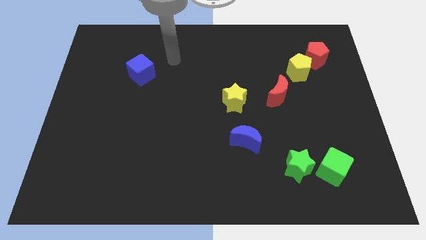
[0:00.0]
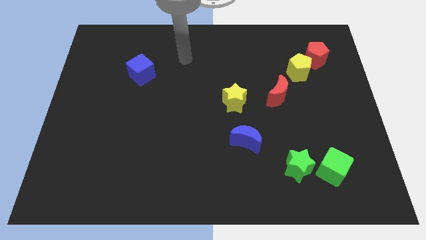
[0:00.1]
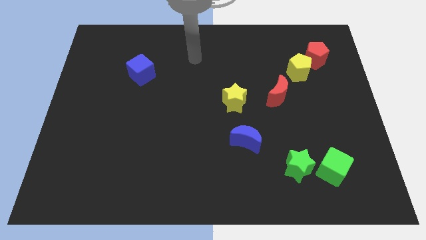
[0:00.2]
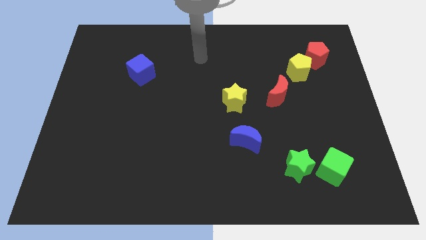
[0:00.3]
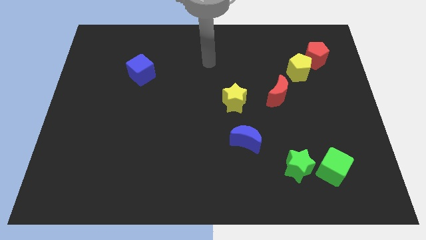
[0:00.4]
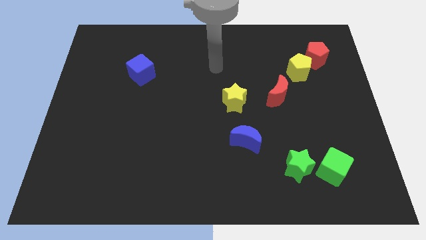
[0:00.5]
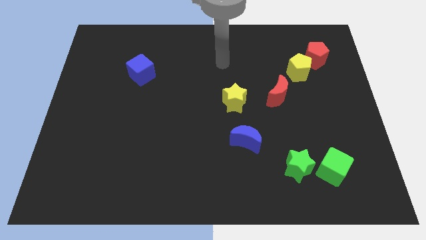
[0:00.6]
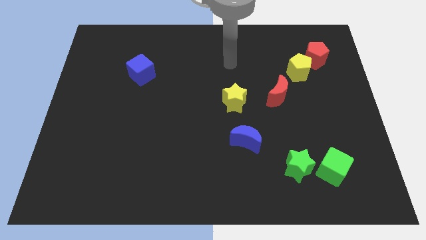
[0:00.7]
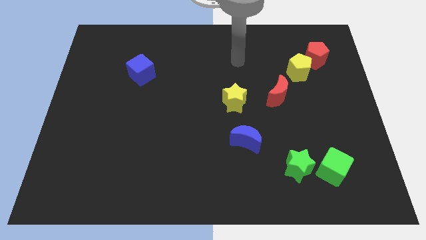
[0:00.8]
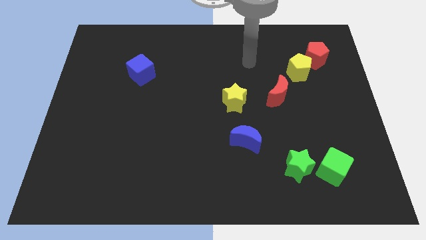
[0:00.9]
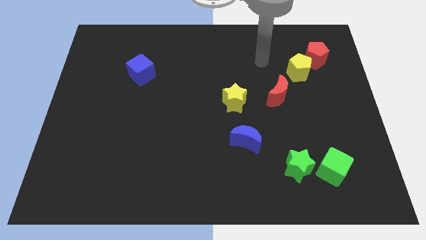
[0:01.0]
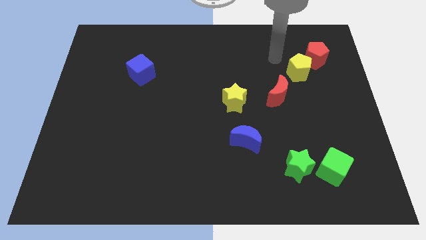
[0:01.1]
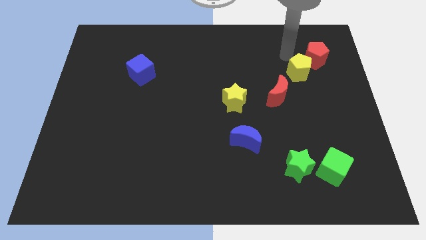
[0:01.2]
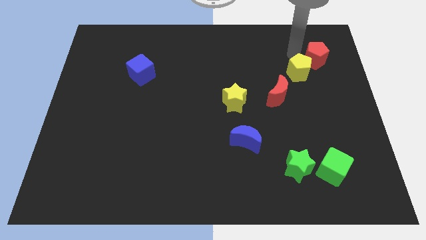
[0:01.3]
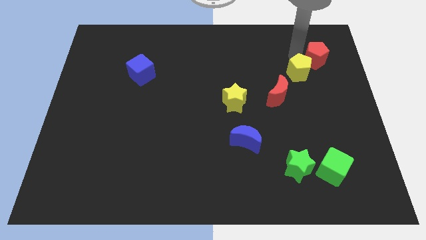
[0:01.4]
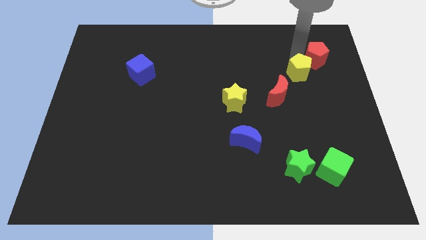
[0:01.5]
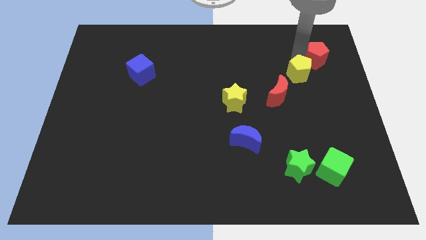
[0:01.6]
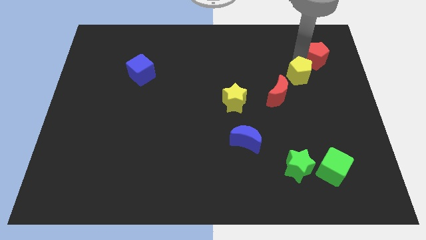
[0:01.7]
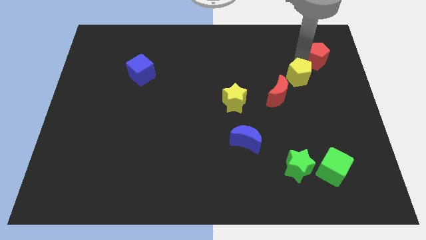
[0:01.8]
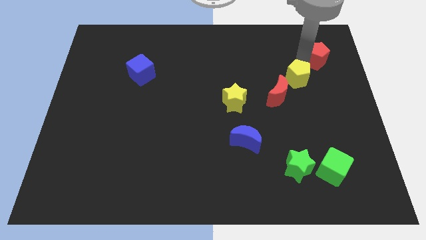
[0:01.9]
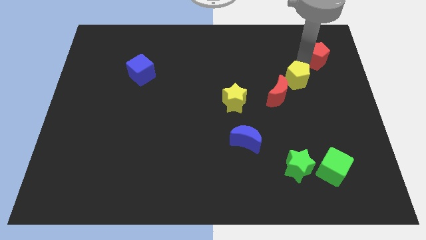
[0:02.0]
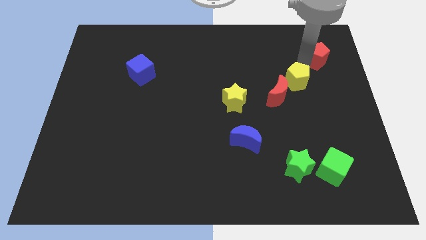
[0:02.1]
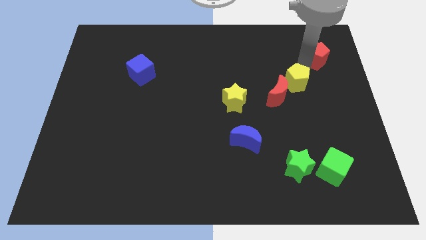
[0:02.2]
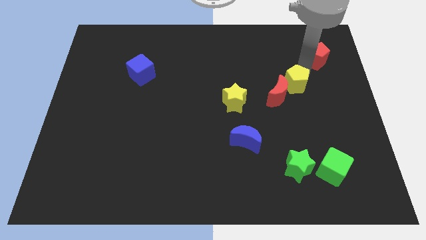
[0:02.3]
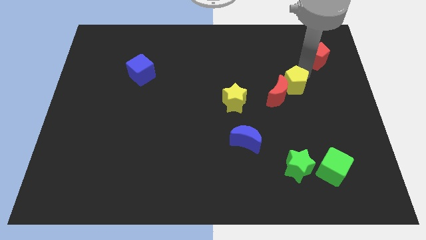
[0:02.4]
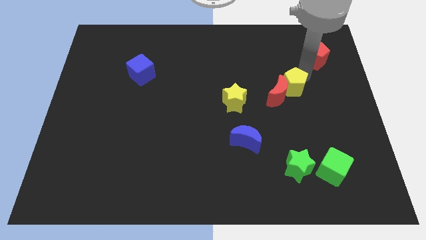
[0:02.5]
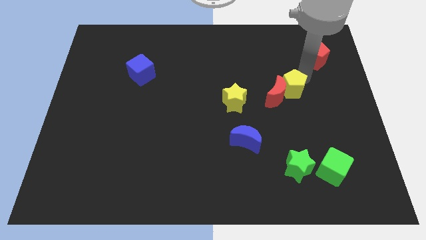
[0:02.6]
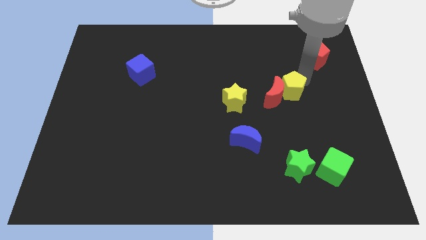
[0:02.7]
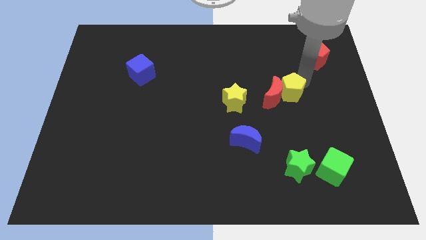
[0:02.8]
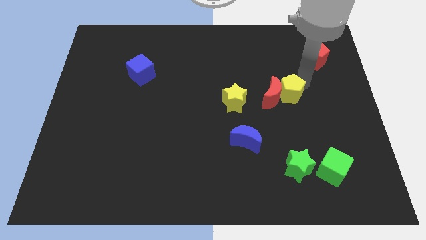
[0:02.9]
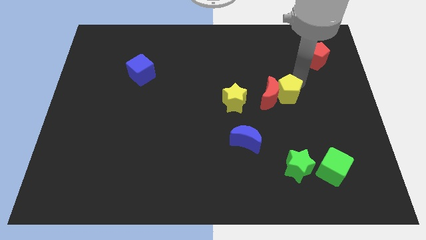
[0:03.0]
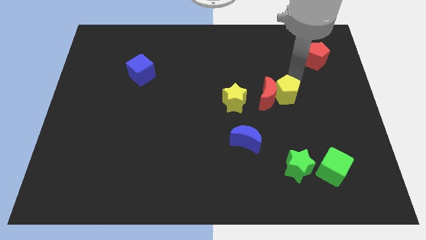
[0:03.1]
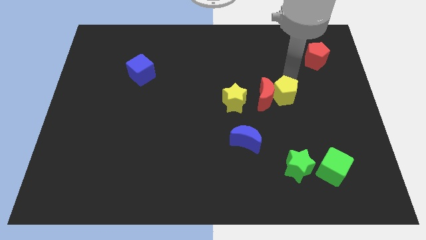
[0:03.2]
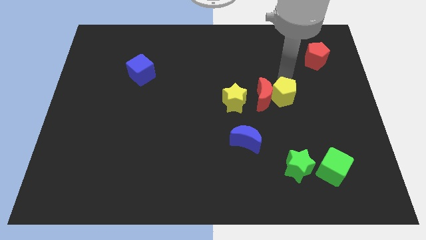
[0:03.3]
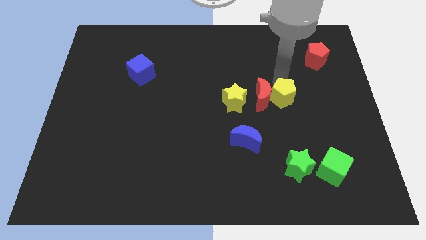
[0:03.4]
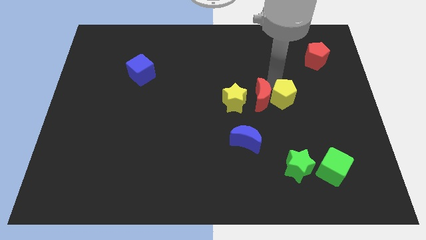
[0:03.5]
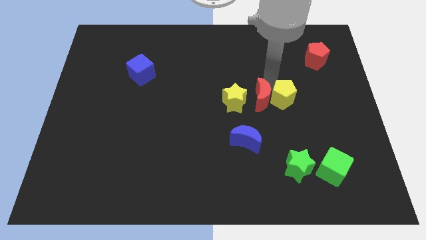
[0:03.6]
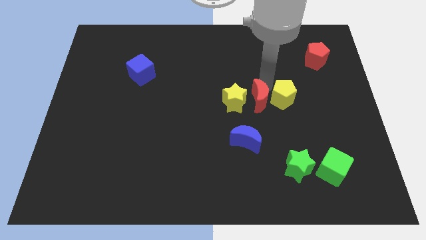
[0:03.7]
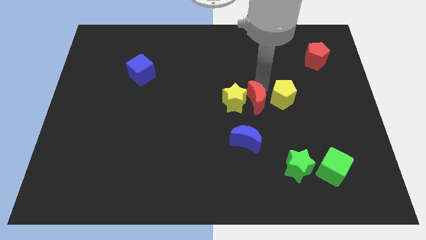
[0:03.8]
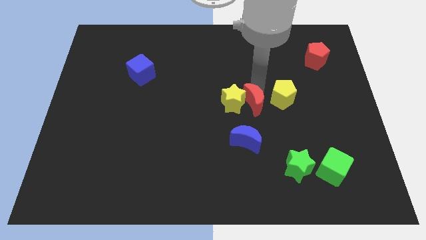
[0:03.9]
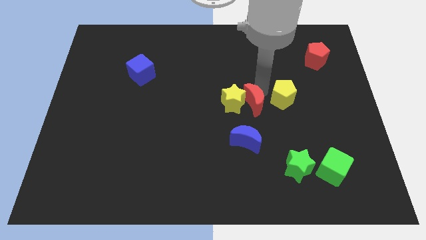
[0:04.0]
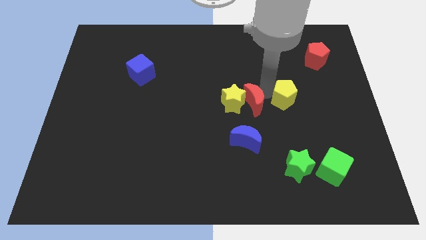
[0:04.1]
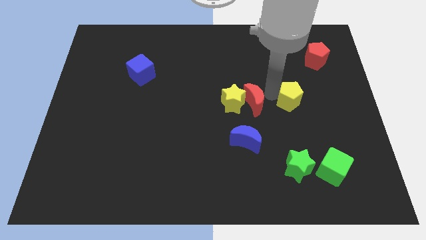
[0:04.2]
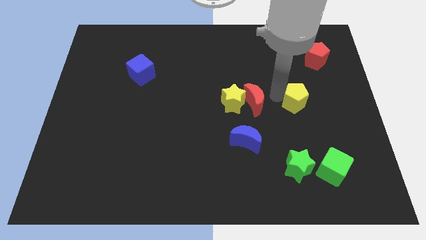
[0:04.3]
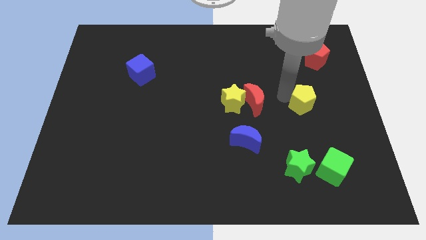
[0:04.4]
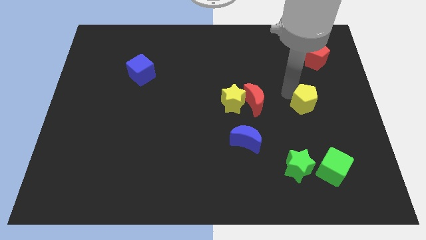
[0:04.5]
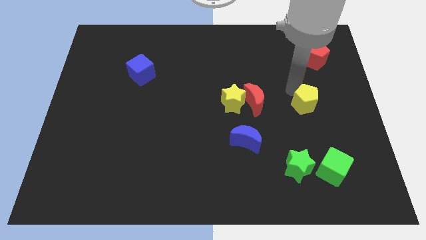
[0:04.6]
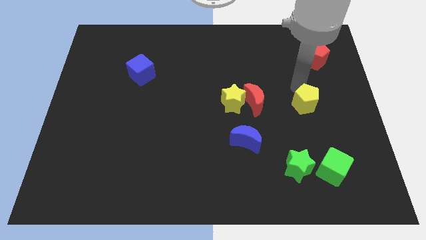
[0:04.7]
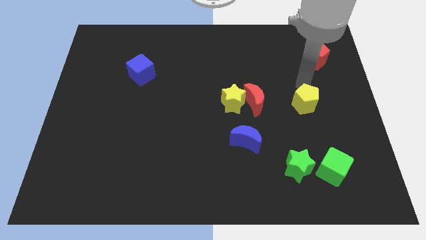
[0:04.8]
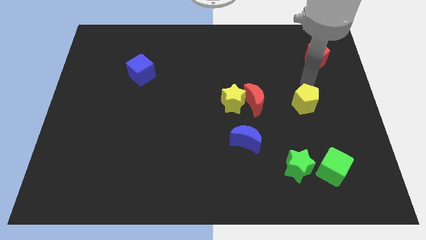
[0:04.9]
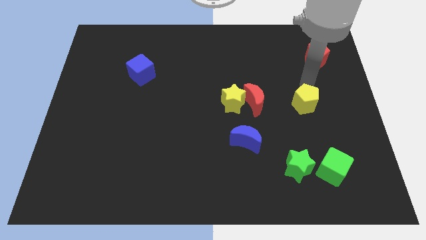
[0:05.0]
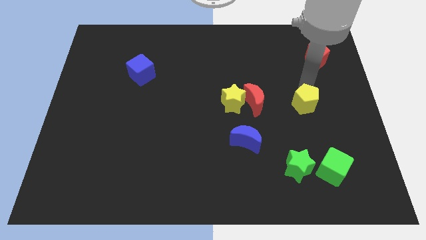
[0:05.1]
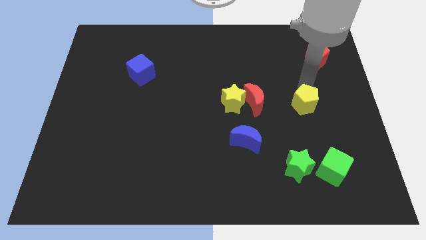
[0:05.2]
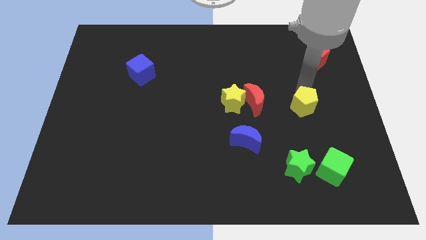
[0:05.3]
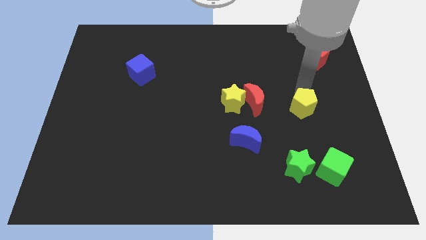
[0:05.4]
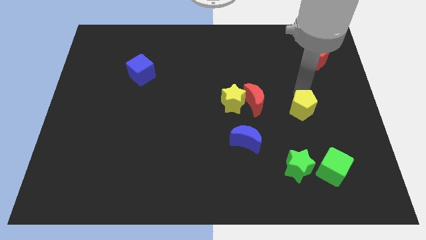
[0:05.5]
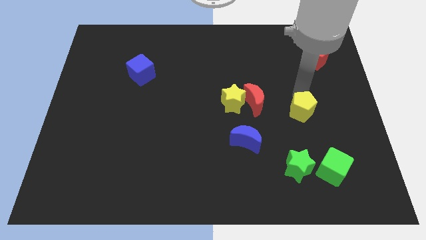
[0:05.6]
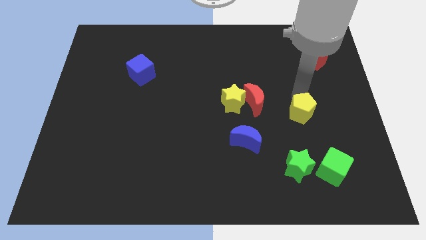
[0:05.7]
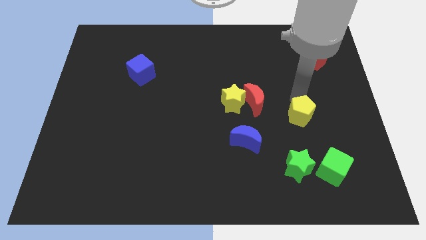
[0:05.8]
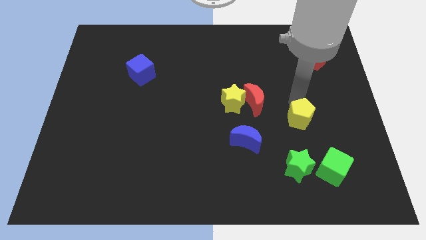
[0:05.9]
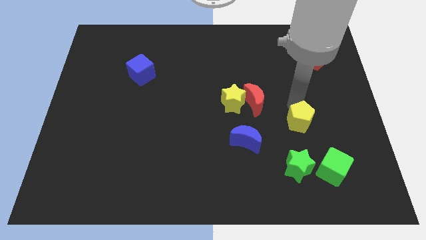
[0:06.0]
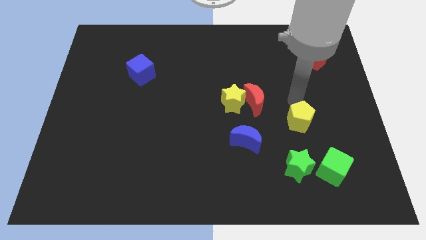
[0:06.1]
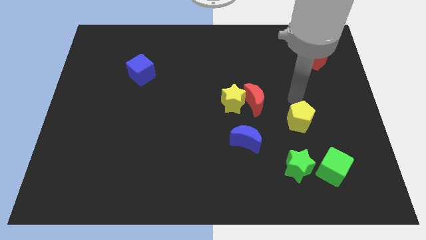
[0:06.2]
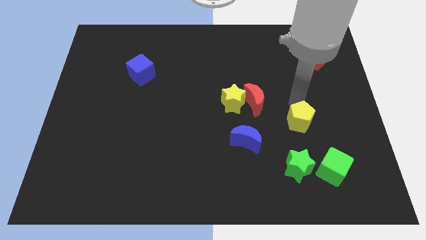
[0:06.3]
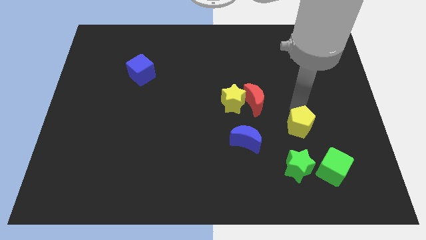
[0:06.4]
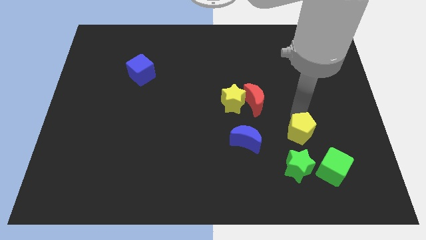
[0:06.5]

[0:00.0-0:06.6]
push the yellow pentagon to the top left of the green cube
